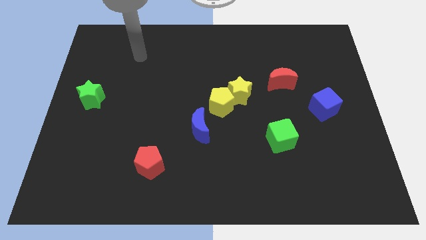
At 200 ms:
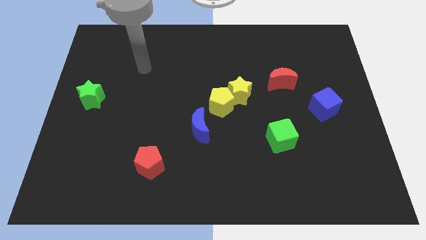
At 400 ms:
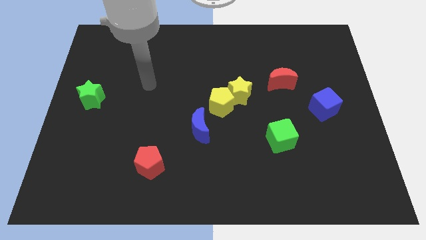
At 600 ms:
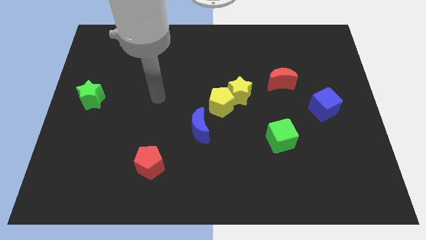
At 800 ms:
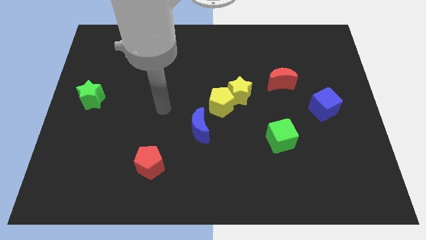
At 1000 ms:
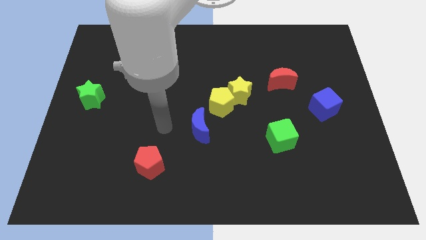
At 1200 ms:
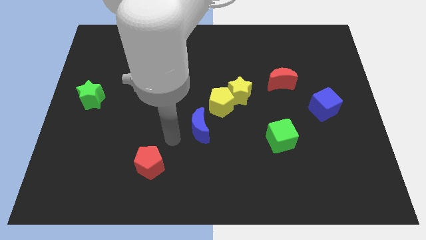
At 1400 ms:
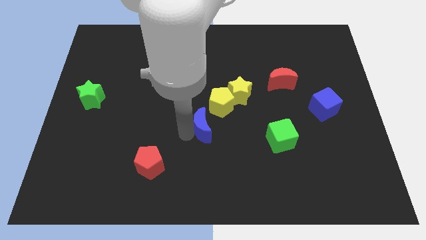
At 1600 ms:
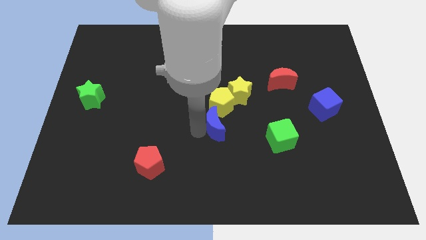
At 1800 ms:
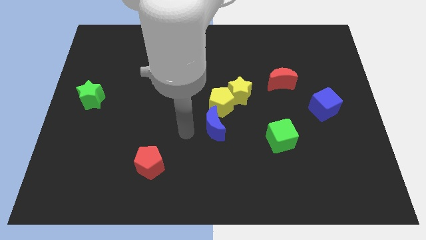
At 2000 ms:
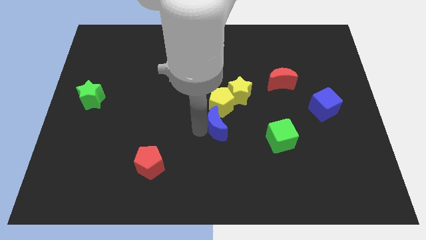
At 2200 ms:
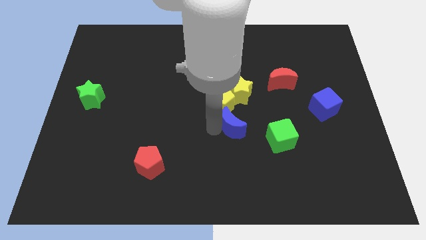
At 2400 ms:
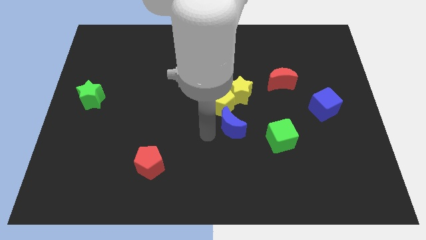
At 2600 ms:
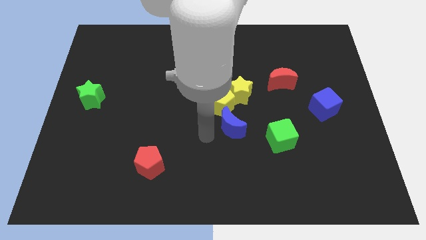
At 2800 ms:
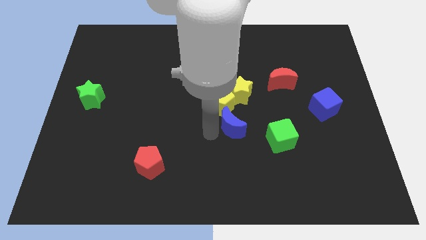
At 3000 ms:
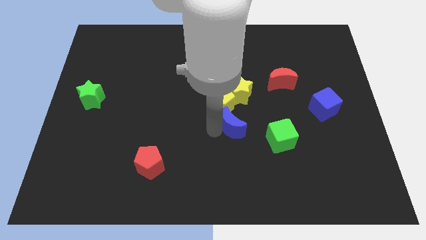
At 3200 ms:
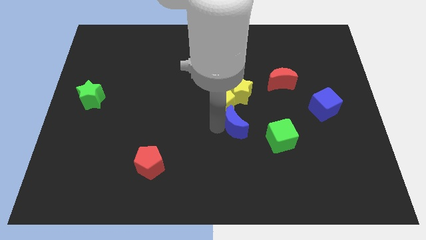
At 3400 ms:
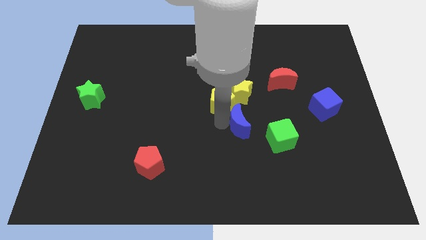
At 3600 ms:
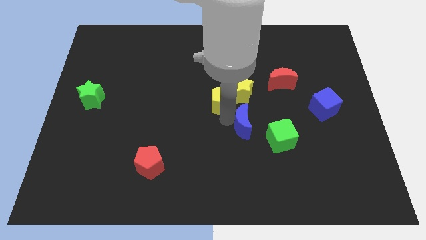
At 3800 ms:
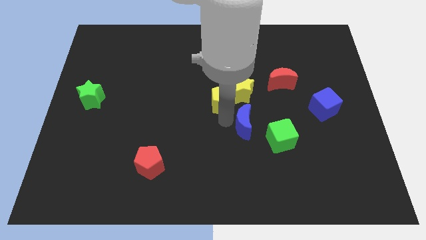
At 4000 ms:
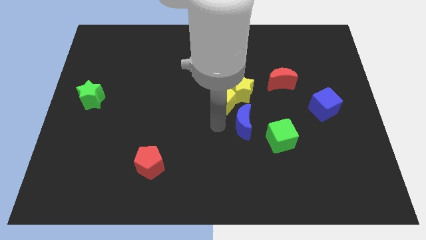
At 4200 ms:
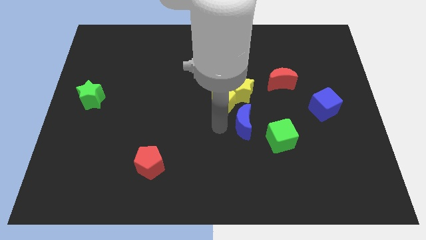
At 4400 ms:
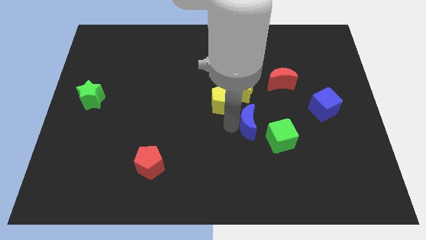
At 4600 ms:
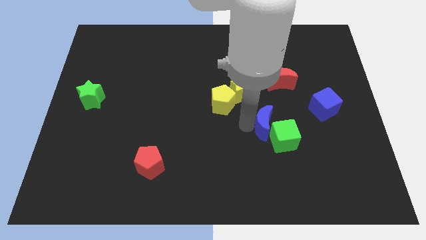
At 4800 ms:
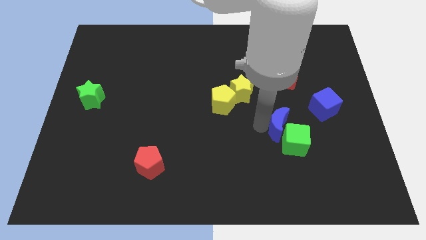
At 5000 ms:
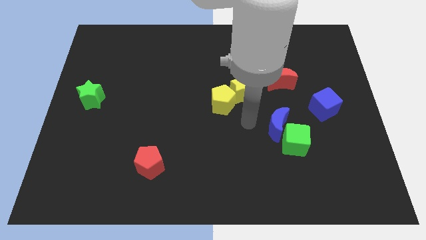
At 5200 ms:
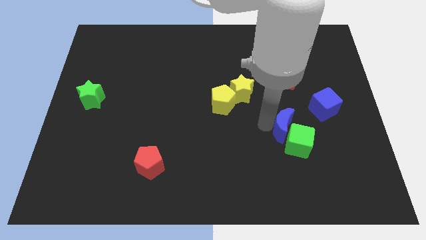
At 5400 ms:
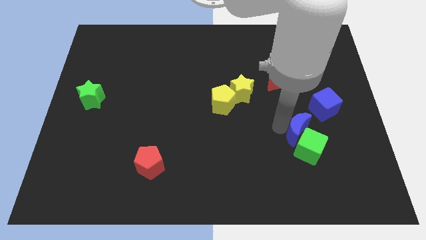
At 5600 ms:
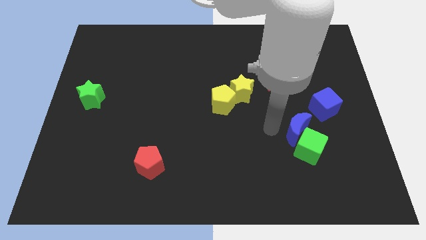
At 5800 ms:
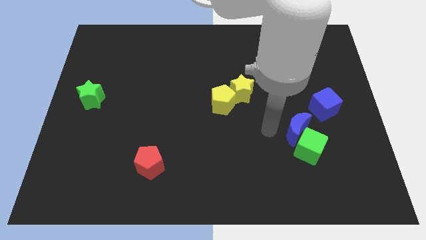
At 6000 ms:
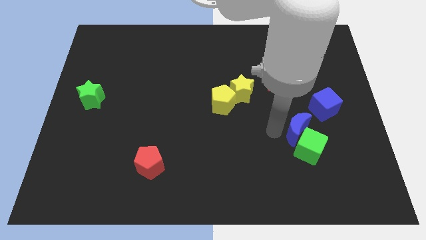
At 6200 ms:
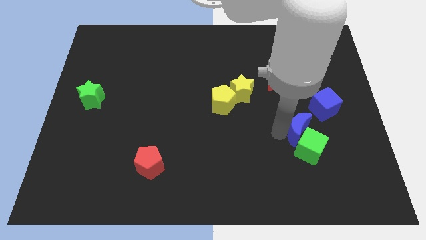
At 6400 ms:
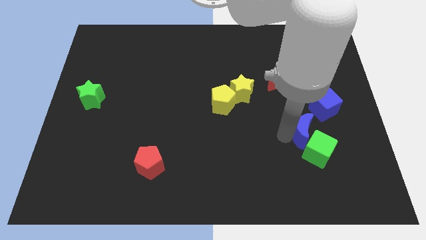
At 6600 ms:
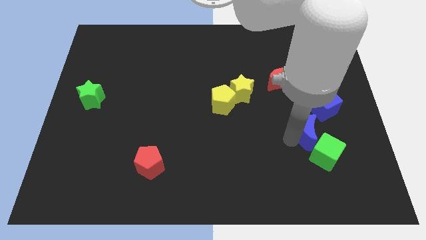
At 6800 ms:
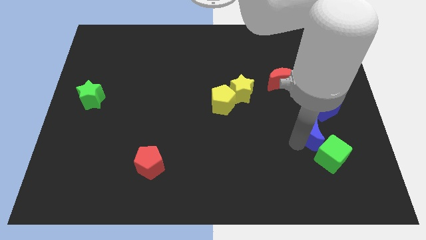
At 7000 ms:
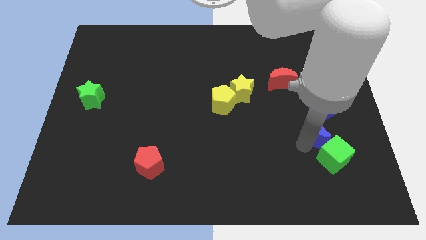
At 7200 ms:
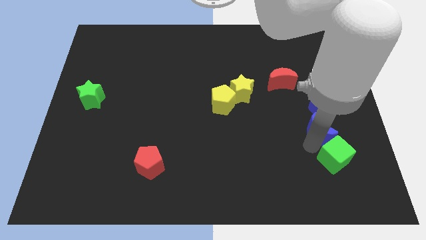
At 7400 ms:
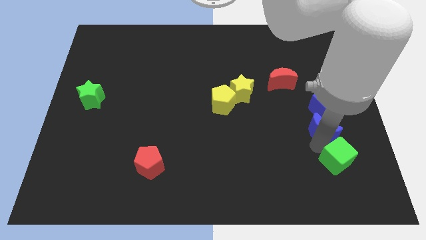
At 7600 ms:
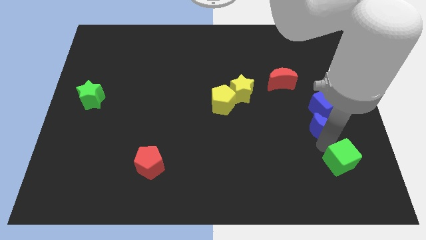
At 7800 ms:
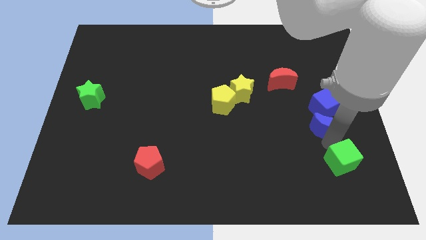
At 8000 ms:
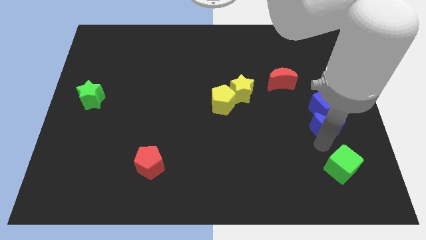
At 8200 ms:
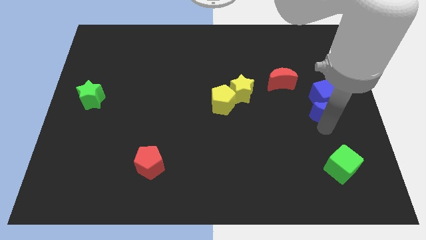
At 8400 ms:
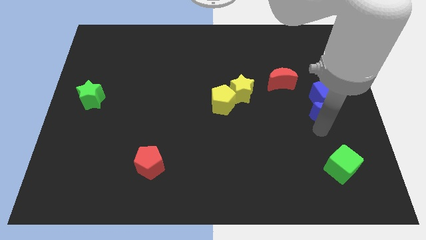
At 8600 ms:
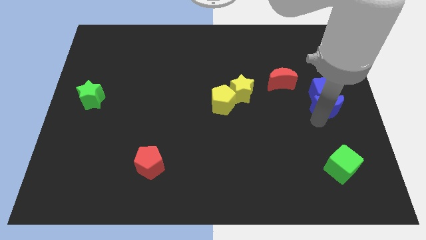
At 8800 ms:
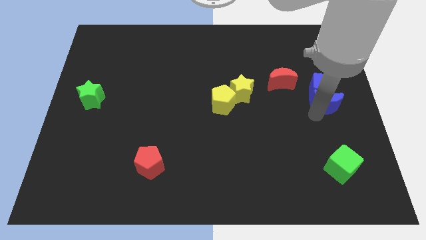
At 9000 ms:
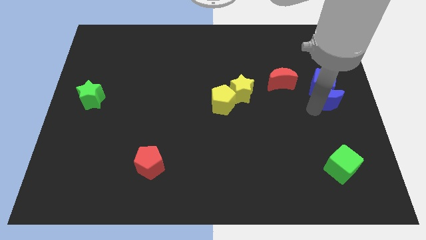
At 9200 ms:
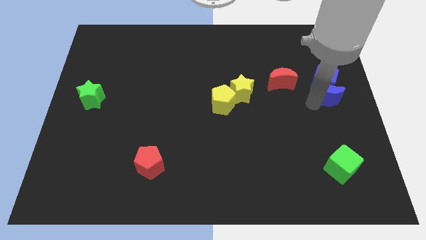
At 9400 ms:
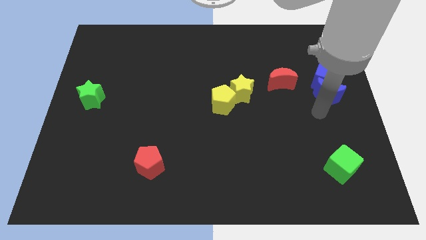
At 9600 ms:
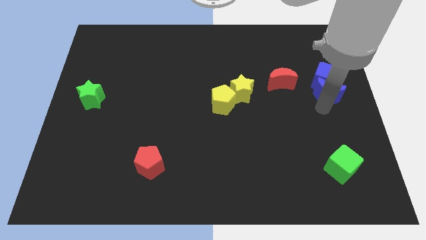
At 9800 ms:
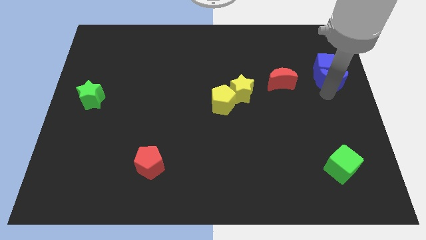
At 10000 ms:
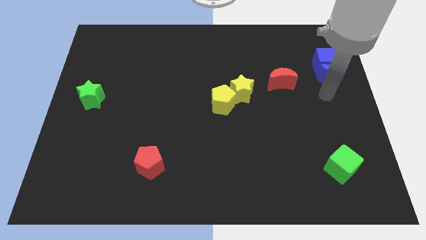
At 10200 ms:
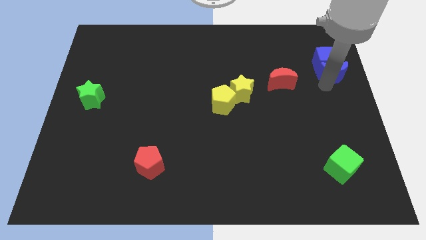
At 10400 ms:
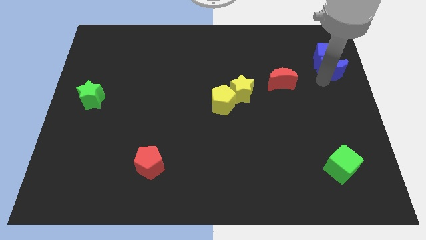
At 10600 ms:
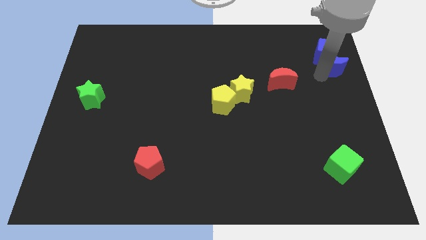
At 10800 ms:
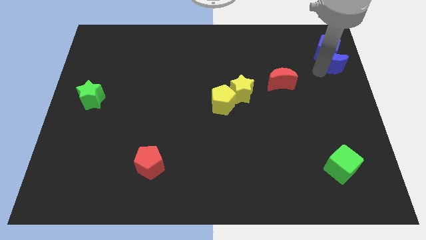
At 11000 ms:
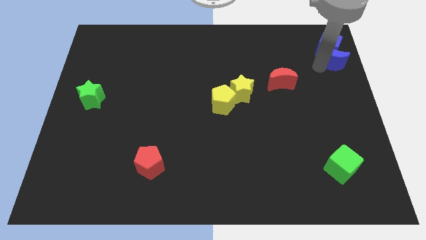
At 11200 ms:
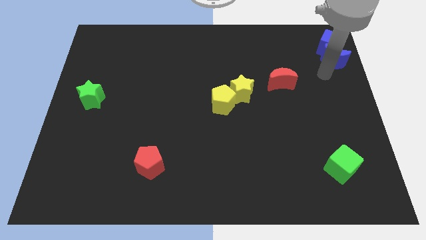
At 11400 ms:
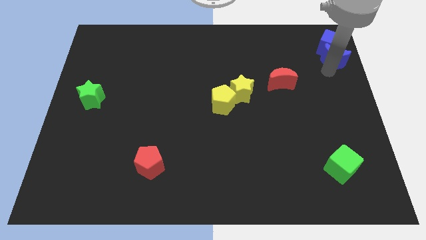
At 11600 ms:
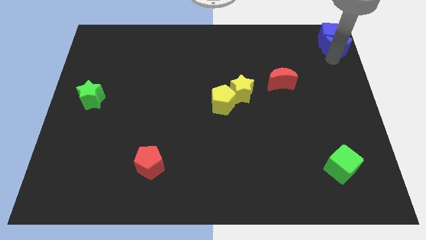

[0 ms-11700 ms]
push the blue moon to the upper right corner

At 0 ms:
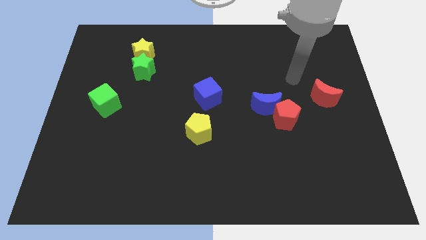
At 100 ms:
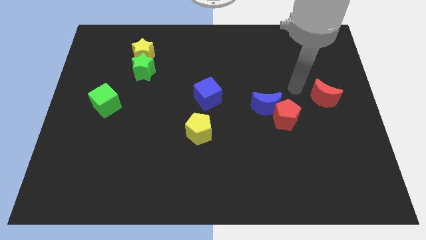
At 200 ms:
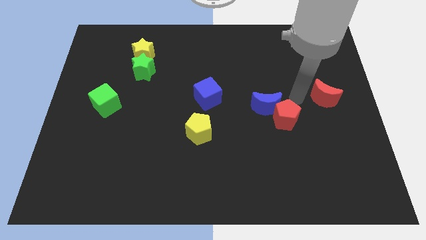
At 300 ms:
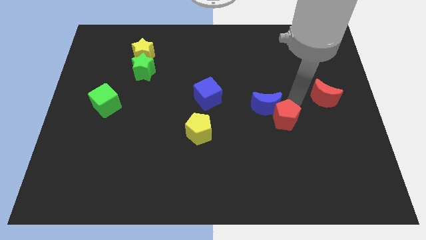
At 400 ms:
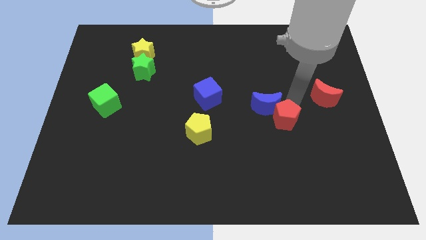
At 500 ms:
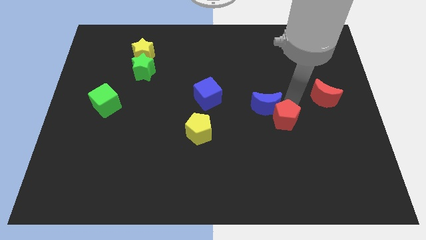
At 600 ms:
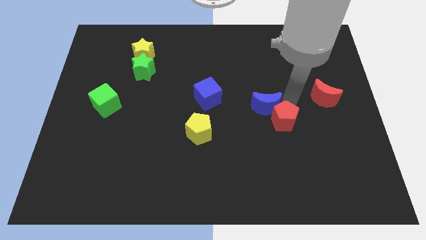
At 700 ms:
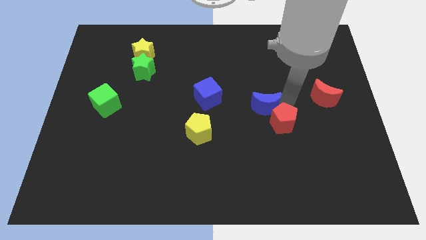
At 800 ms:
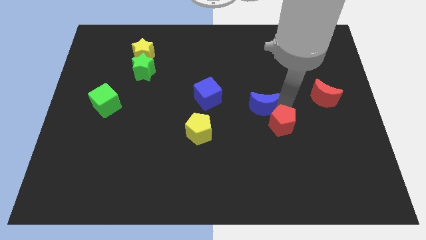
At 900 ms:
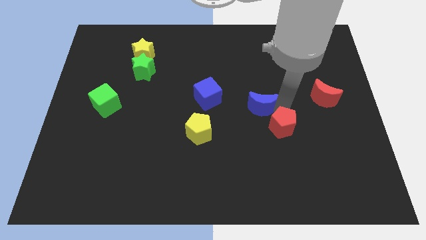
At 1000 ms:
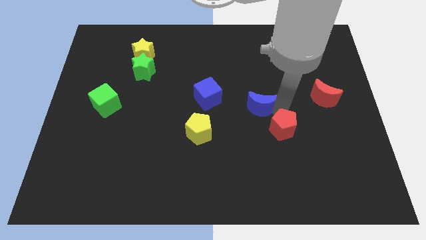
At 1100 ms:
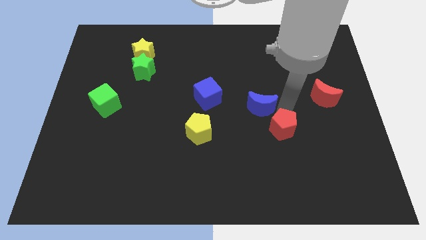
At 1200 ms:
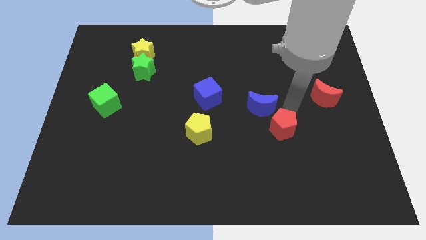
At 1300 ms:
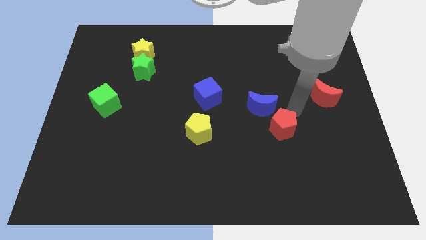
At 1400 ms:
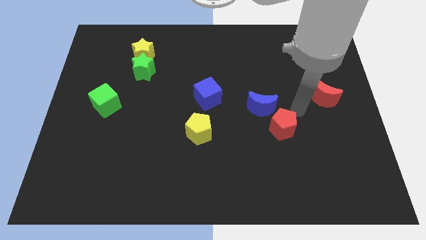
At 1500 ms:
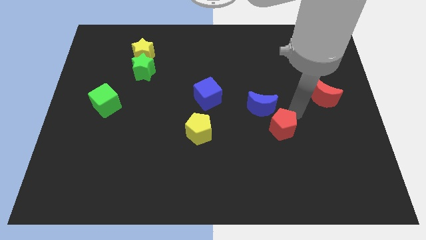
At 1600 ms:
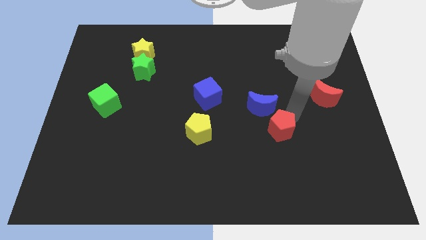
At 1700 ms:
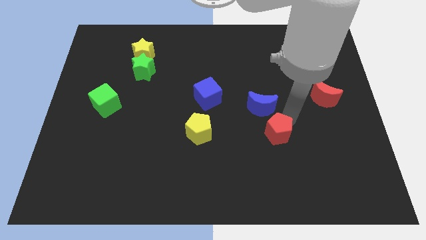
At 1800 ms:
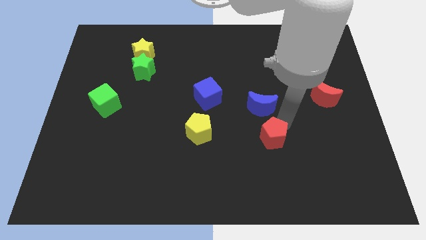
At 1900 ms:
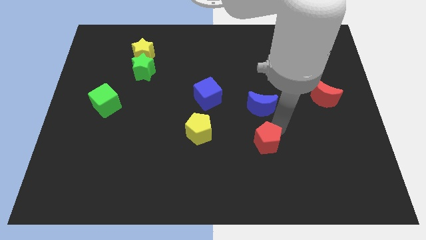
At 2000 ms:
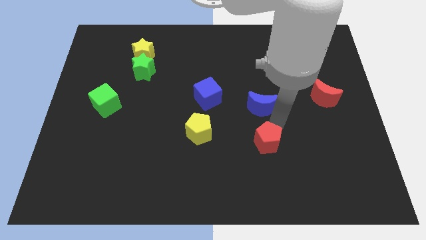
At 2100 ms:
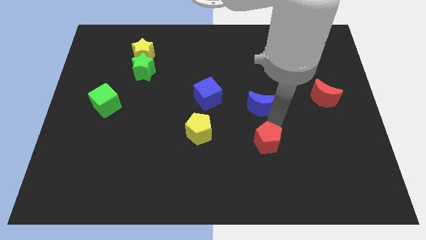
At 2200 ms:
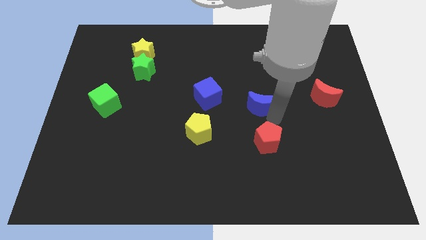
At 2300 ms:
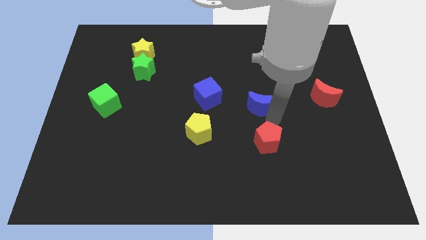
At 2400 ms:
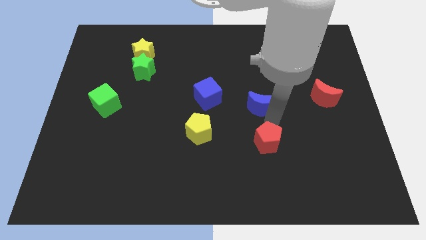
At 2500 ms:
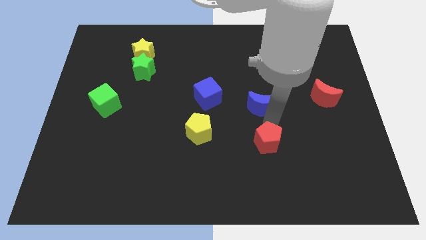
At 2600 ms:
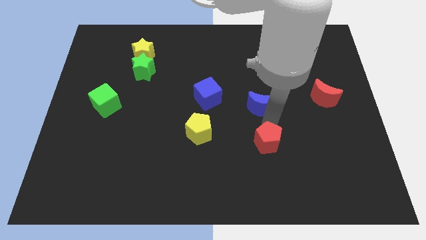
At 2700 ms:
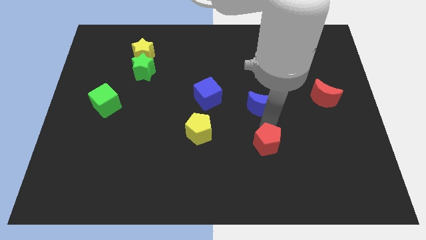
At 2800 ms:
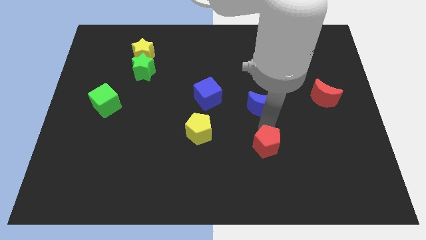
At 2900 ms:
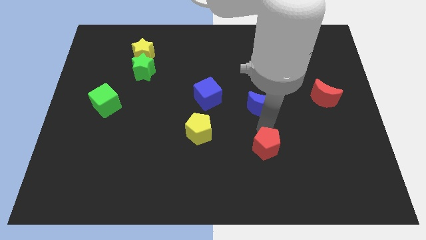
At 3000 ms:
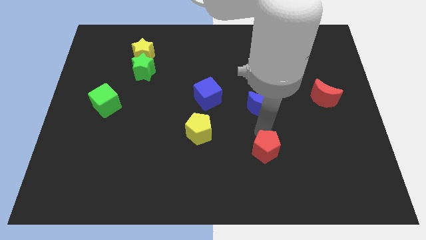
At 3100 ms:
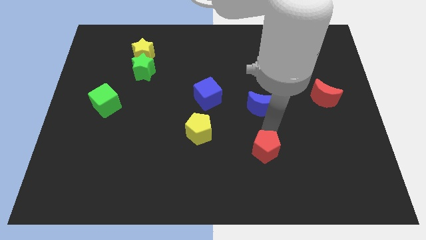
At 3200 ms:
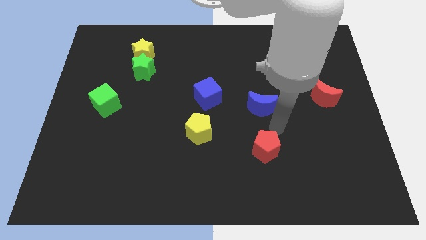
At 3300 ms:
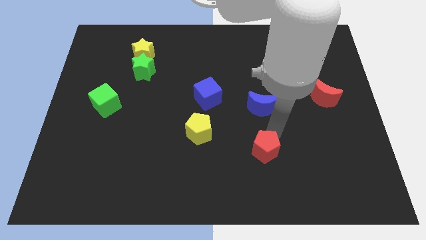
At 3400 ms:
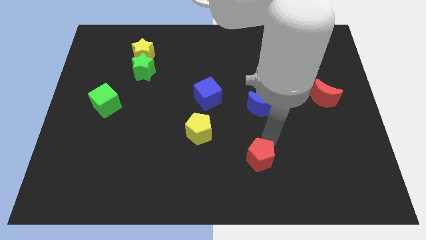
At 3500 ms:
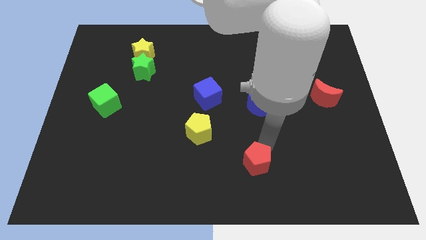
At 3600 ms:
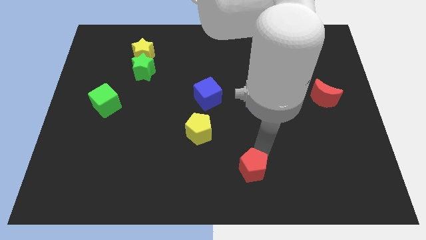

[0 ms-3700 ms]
push the red pentagon to the bottom side
